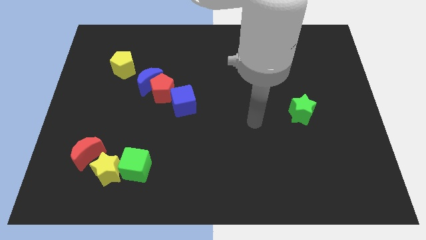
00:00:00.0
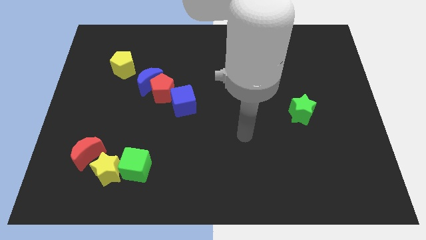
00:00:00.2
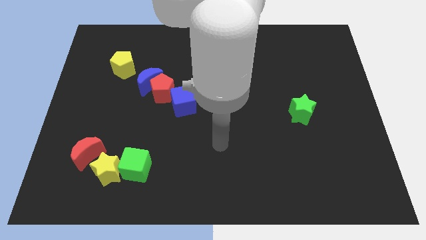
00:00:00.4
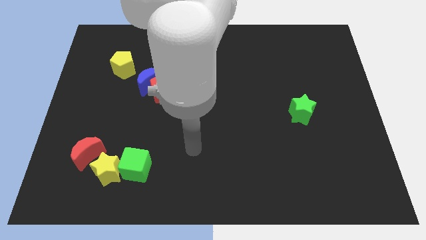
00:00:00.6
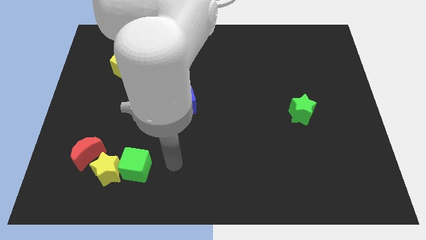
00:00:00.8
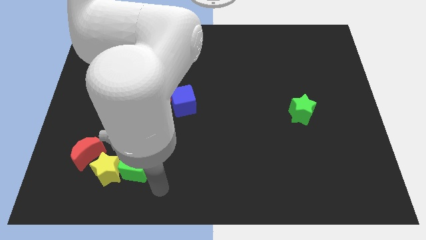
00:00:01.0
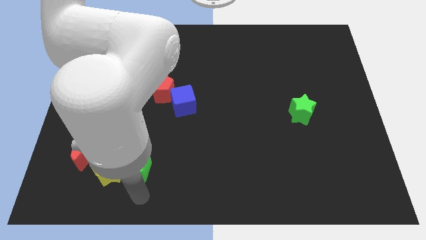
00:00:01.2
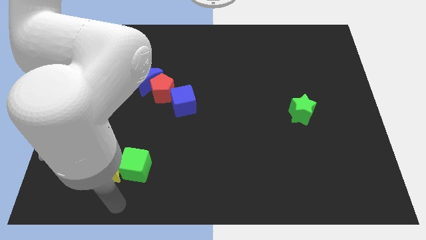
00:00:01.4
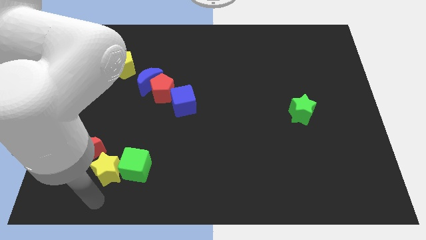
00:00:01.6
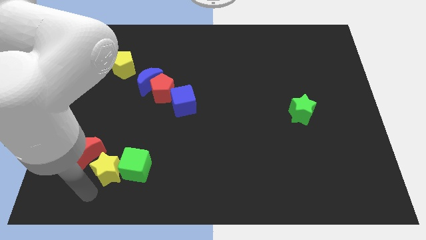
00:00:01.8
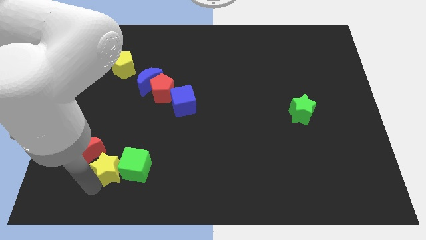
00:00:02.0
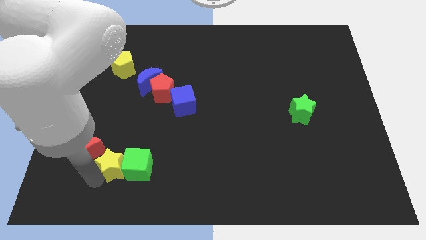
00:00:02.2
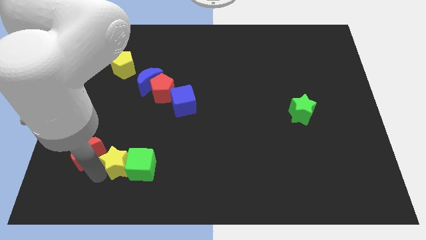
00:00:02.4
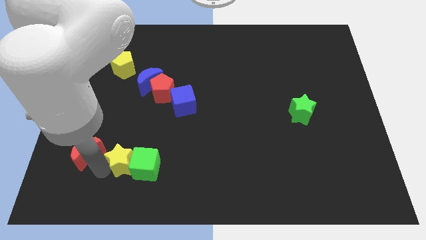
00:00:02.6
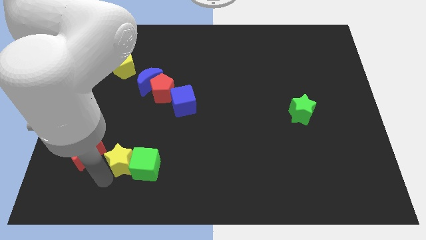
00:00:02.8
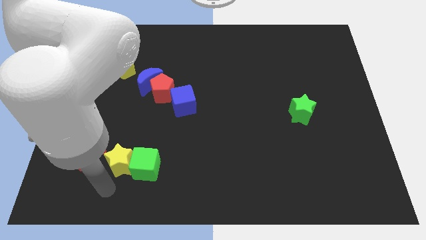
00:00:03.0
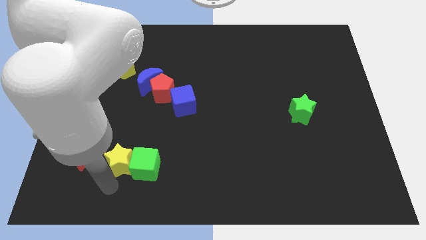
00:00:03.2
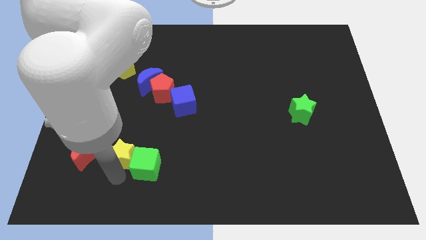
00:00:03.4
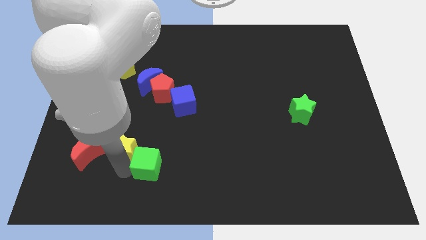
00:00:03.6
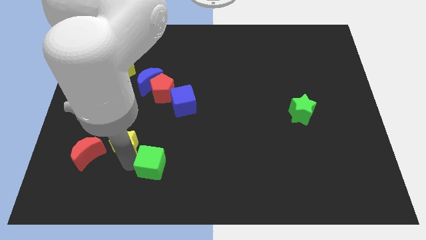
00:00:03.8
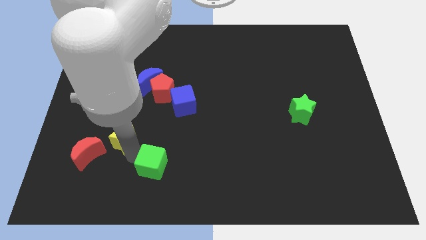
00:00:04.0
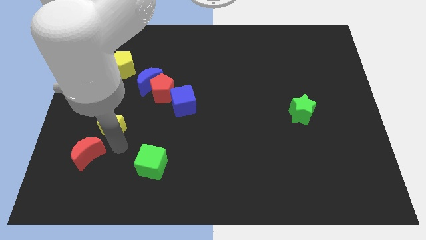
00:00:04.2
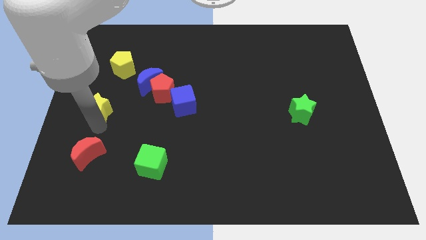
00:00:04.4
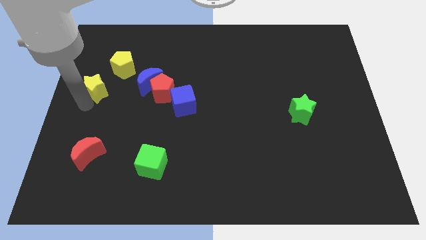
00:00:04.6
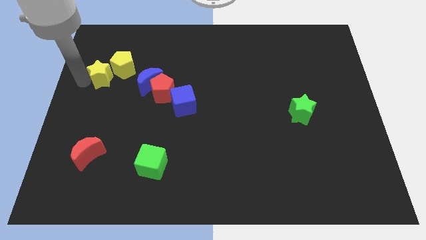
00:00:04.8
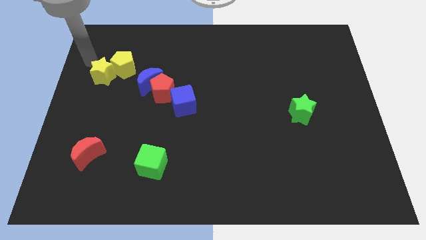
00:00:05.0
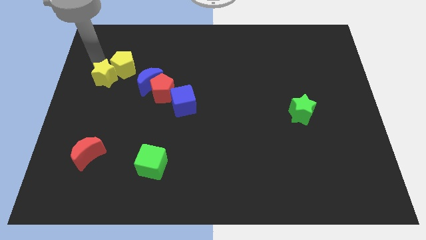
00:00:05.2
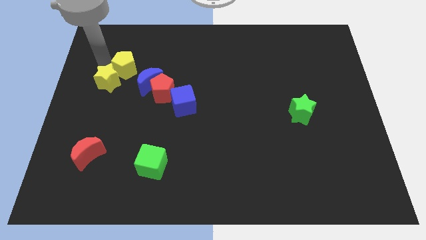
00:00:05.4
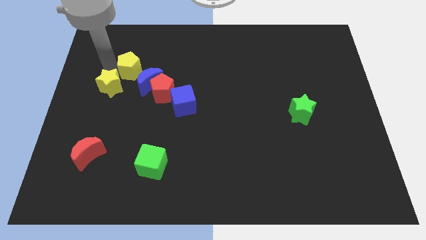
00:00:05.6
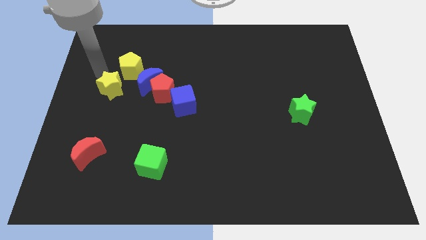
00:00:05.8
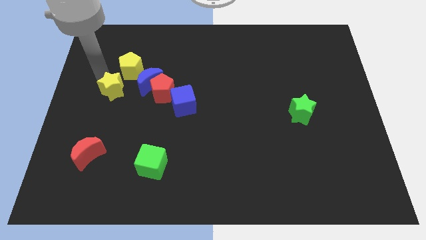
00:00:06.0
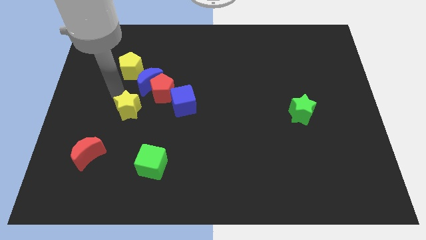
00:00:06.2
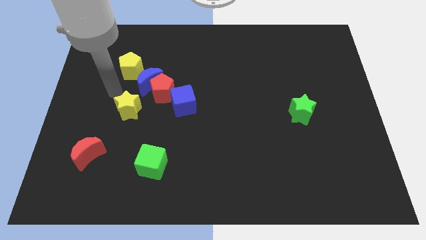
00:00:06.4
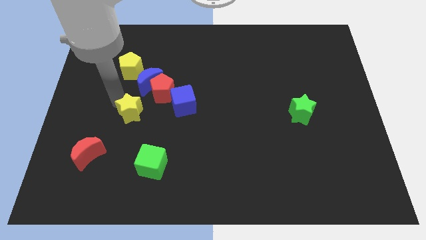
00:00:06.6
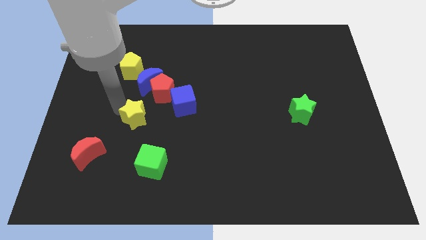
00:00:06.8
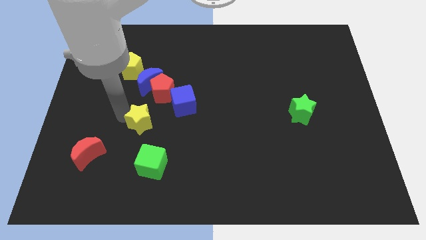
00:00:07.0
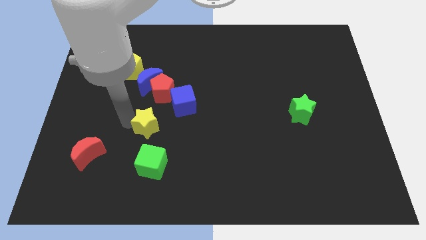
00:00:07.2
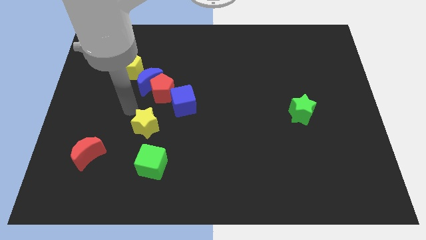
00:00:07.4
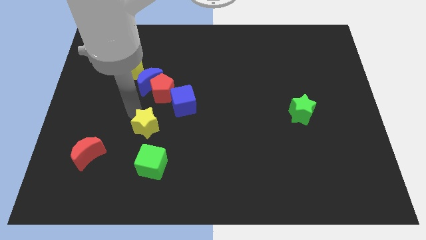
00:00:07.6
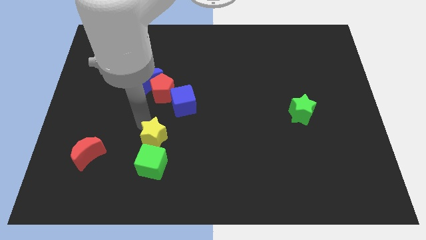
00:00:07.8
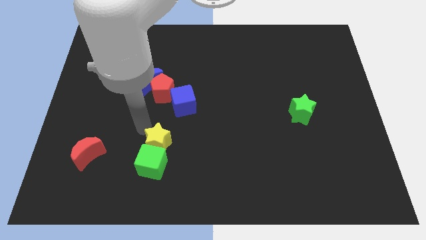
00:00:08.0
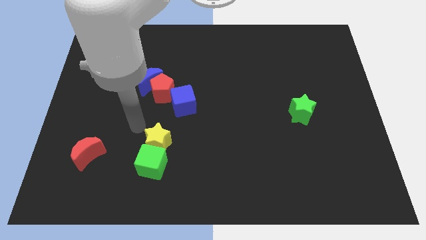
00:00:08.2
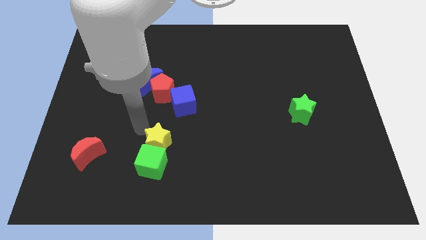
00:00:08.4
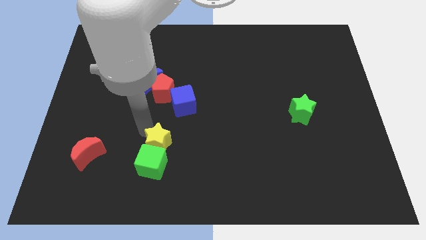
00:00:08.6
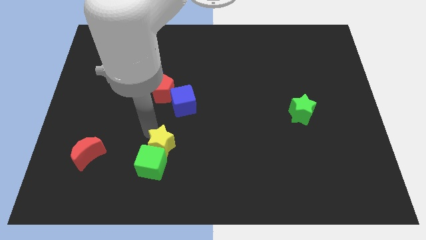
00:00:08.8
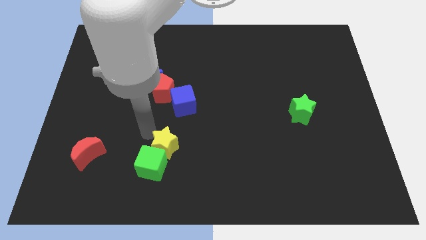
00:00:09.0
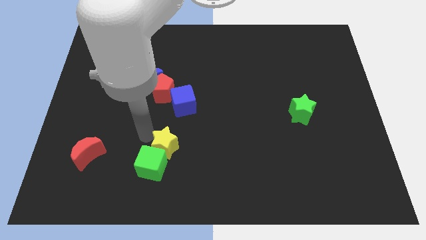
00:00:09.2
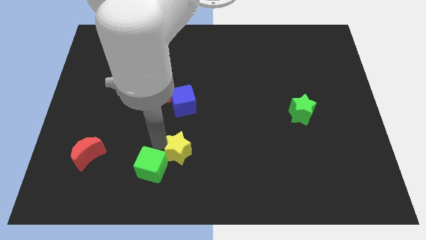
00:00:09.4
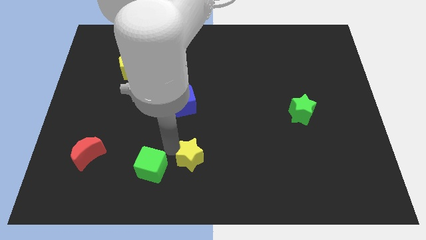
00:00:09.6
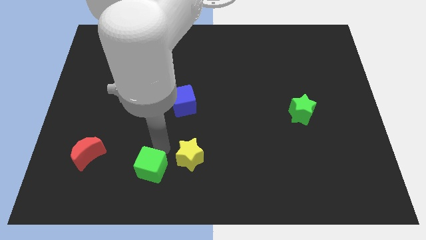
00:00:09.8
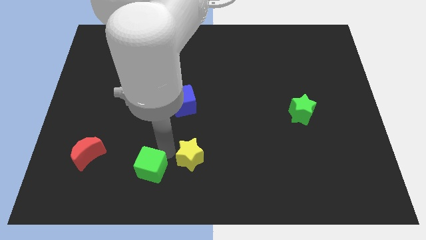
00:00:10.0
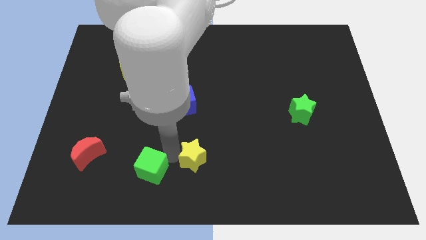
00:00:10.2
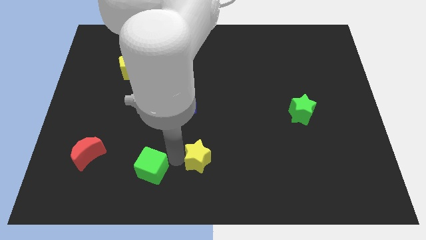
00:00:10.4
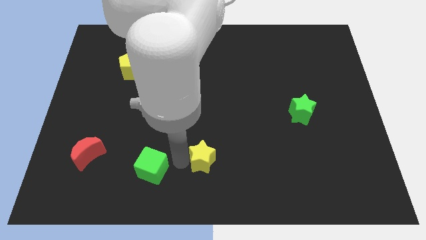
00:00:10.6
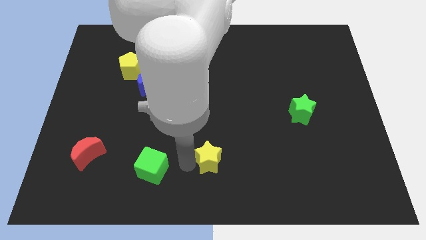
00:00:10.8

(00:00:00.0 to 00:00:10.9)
slide the yellow star to the right

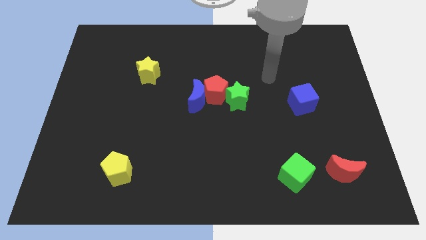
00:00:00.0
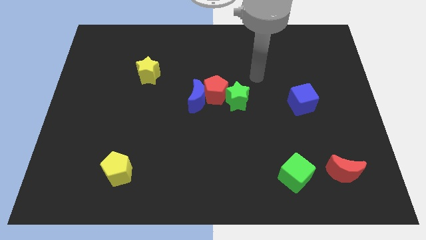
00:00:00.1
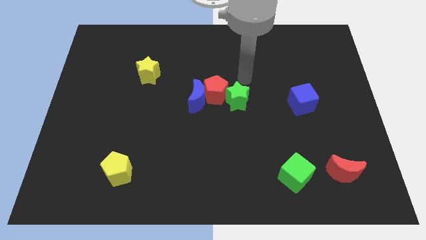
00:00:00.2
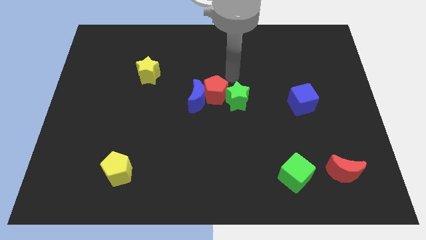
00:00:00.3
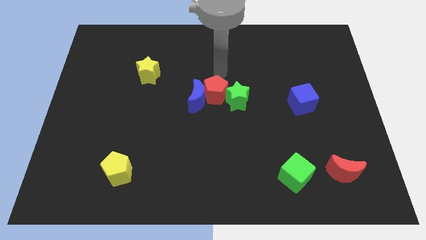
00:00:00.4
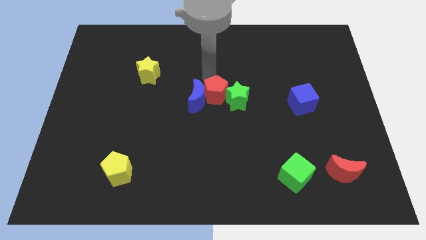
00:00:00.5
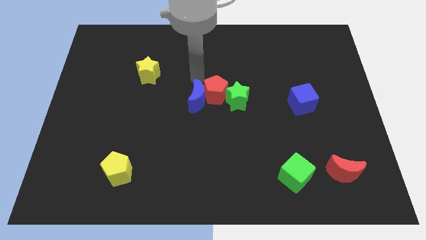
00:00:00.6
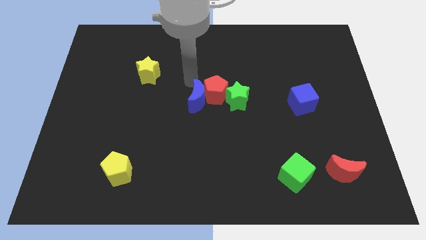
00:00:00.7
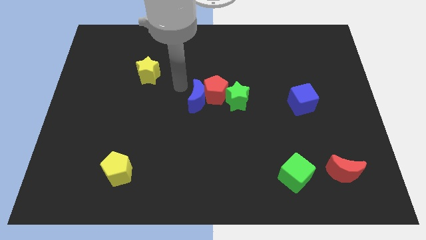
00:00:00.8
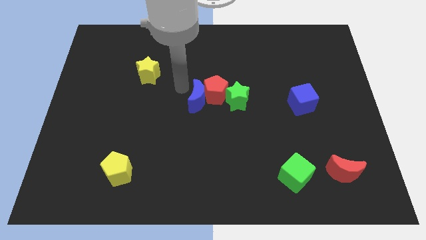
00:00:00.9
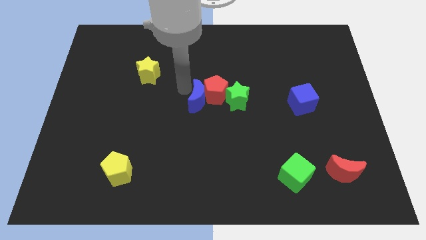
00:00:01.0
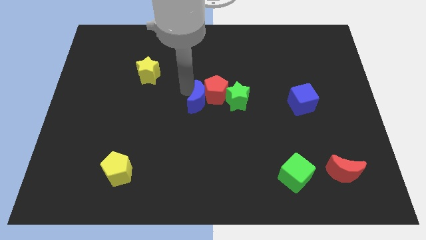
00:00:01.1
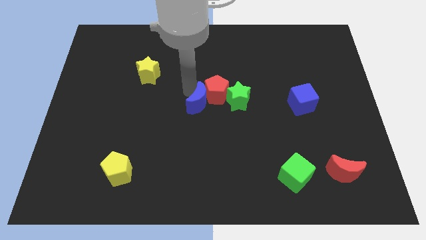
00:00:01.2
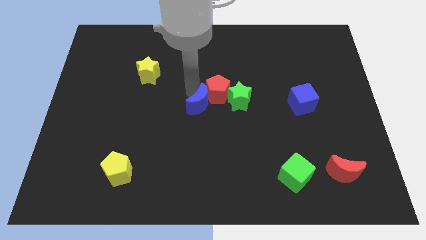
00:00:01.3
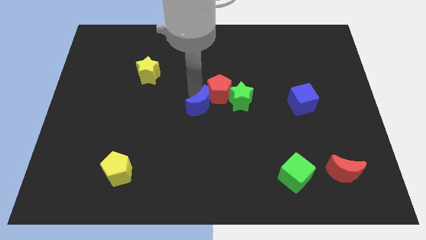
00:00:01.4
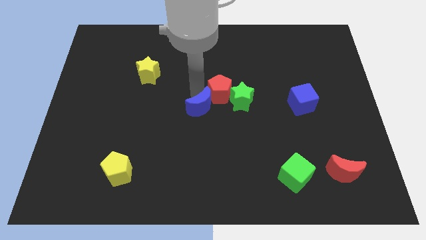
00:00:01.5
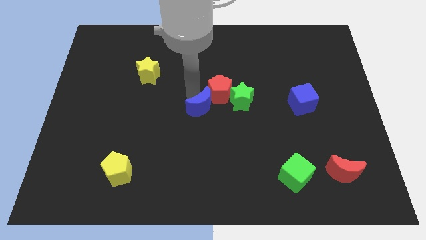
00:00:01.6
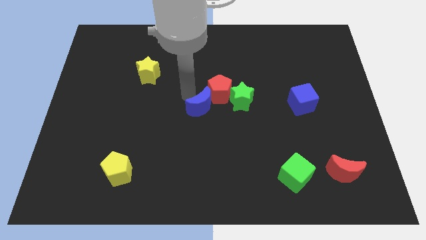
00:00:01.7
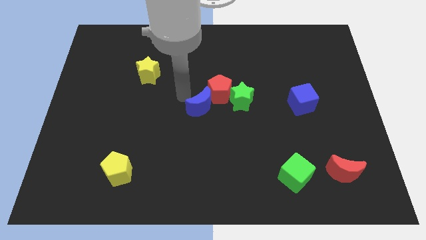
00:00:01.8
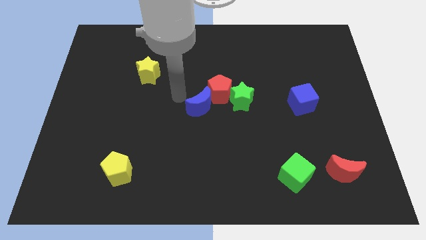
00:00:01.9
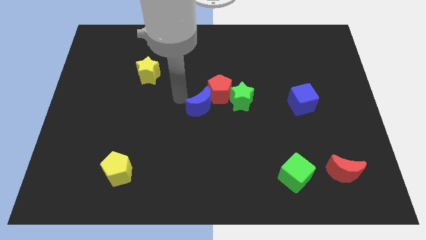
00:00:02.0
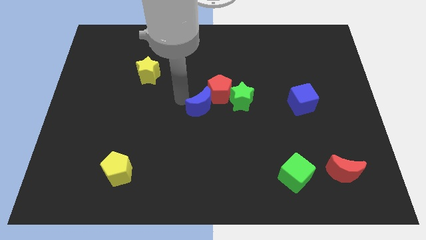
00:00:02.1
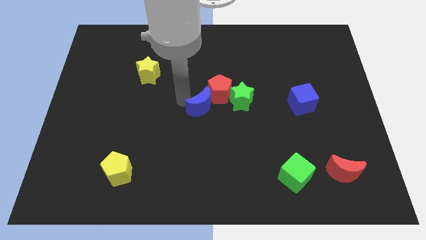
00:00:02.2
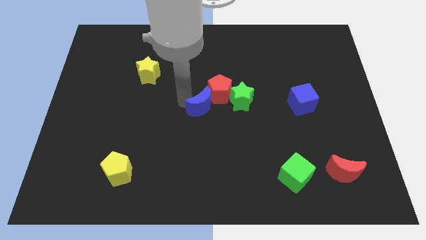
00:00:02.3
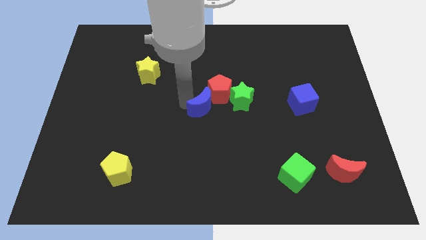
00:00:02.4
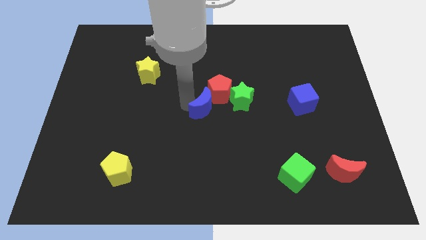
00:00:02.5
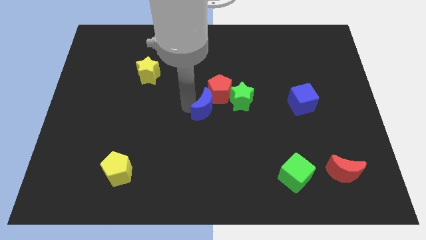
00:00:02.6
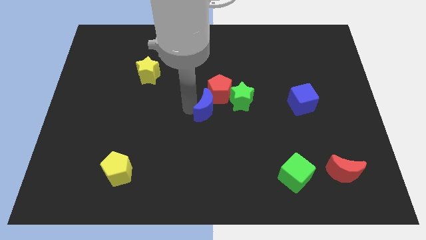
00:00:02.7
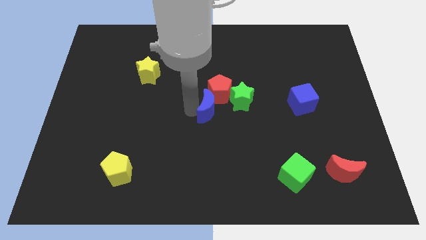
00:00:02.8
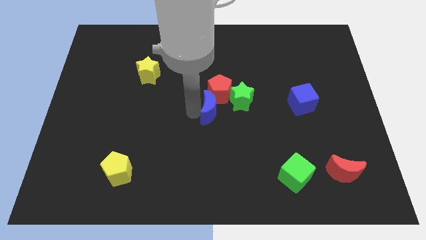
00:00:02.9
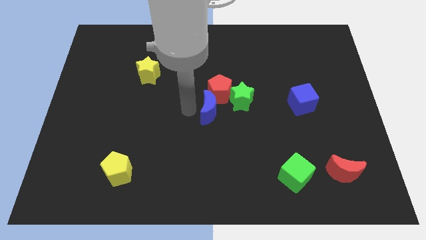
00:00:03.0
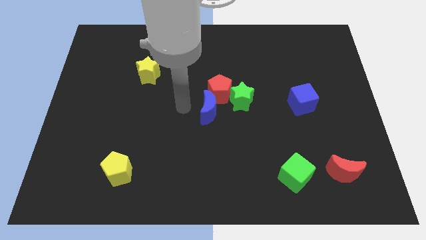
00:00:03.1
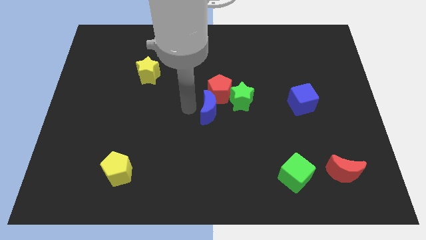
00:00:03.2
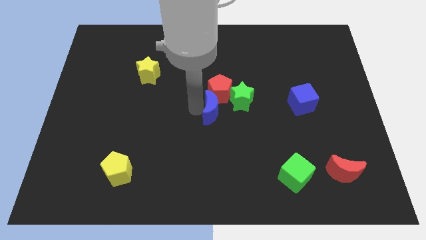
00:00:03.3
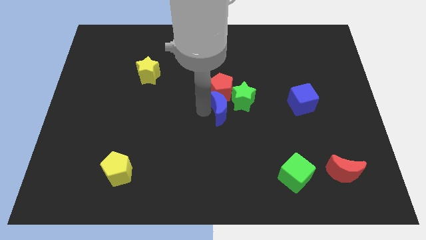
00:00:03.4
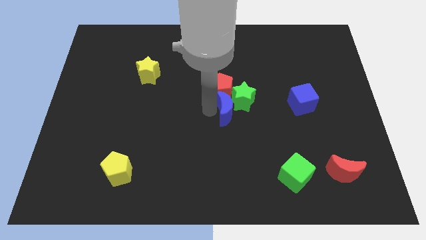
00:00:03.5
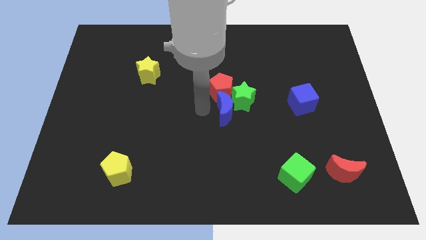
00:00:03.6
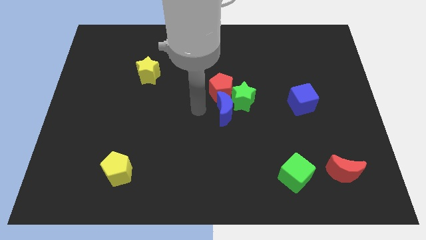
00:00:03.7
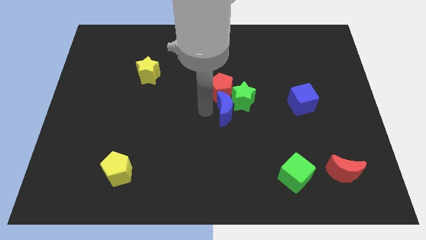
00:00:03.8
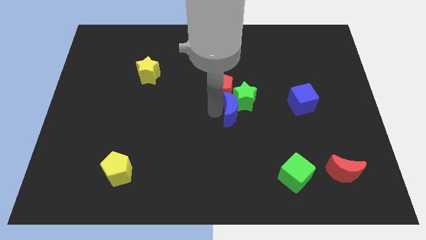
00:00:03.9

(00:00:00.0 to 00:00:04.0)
move the blue moon to the right somewhat
